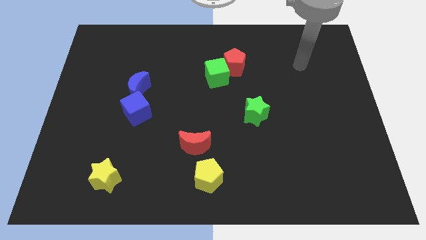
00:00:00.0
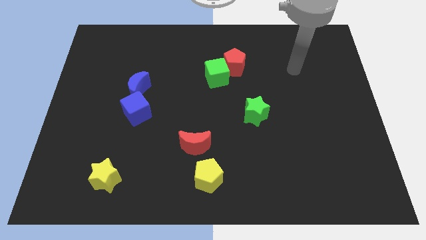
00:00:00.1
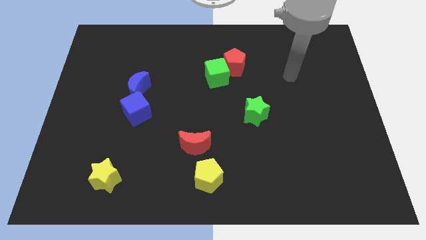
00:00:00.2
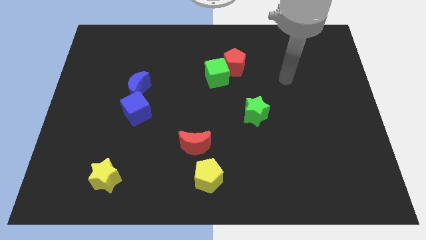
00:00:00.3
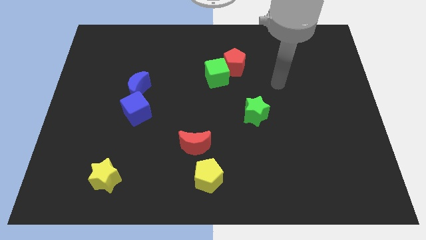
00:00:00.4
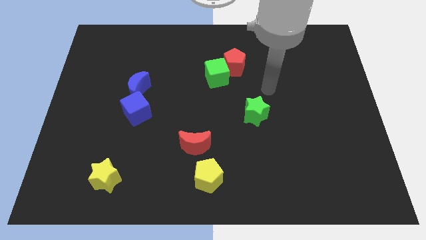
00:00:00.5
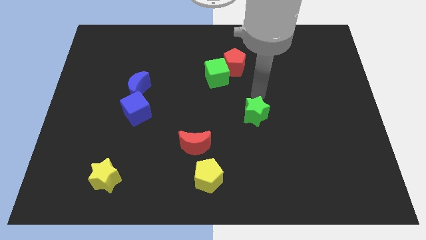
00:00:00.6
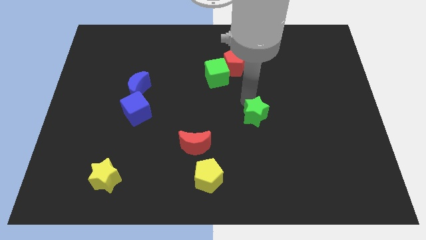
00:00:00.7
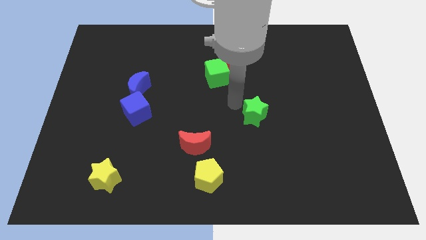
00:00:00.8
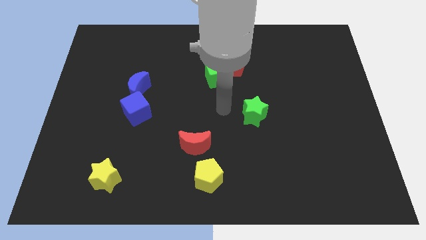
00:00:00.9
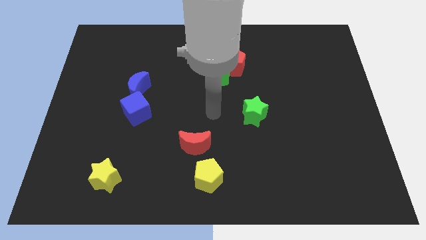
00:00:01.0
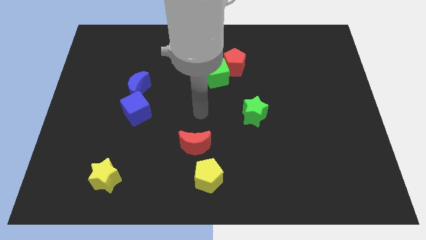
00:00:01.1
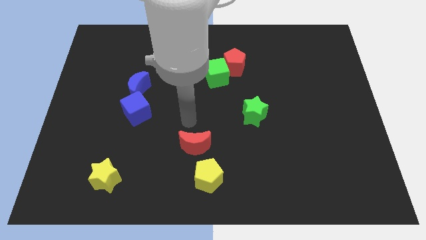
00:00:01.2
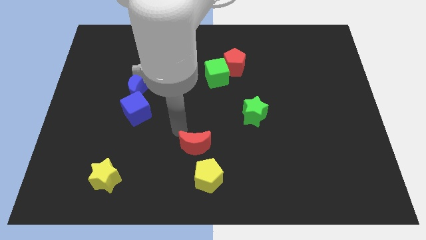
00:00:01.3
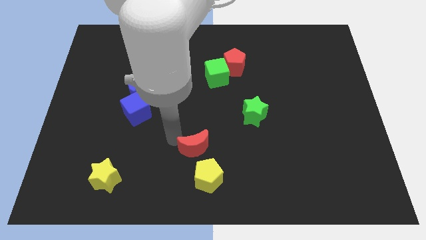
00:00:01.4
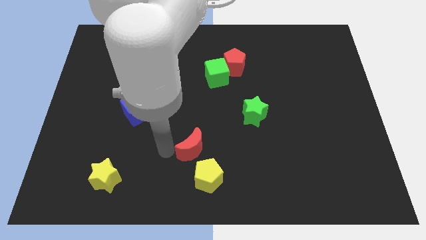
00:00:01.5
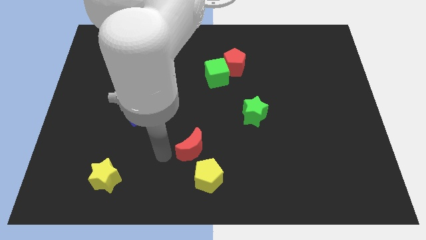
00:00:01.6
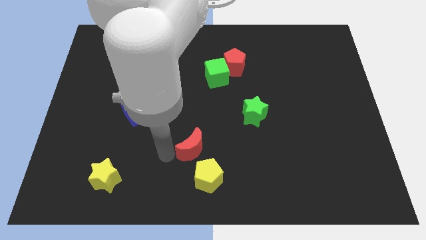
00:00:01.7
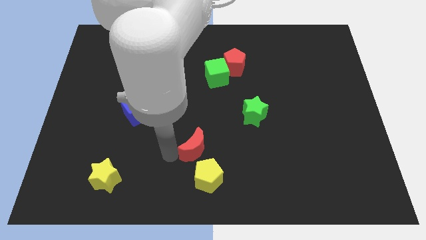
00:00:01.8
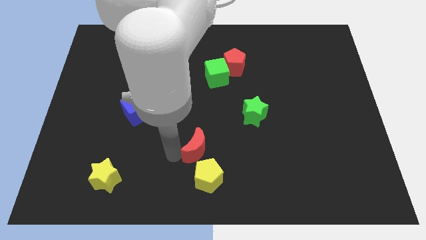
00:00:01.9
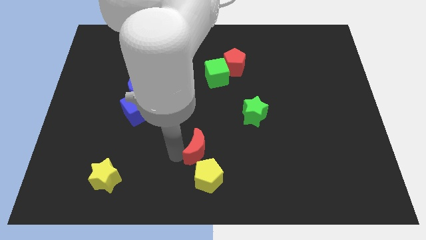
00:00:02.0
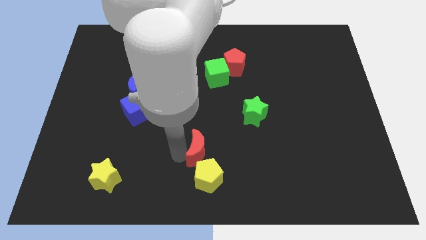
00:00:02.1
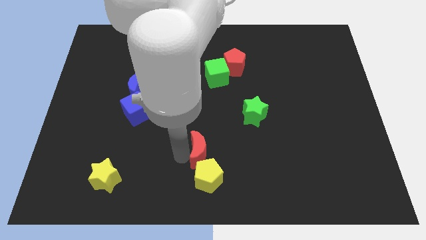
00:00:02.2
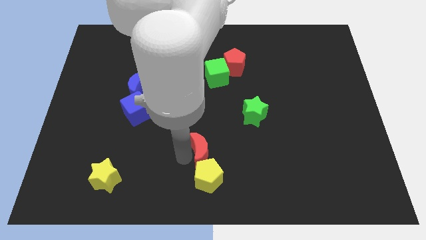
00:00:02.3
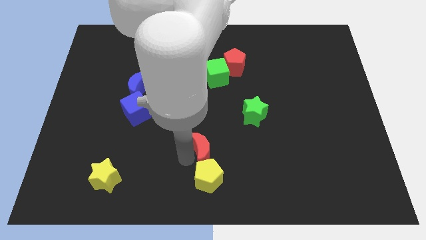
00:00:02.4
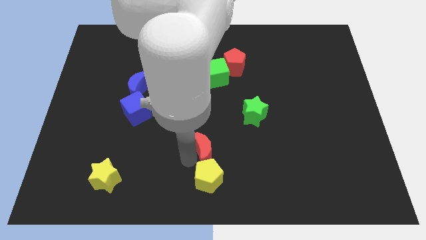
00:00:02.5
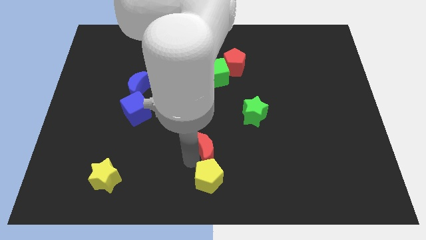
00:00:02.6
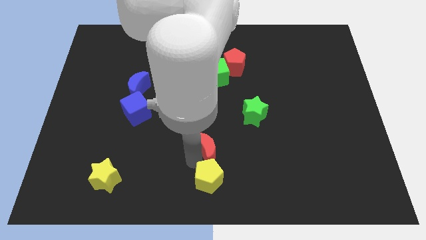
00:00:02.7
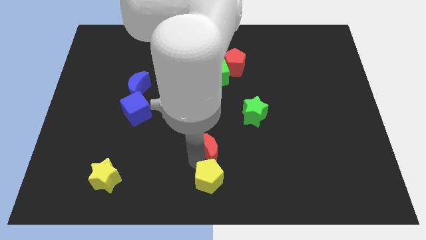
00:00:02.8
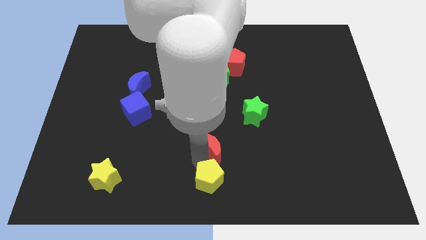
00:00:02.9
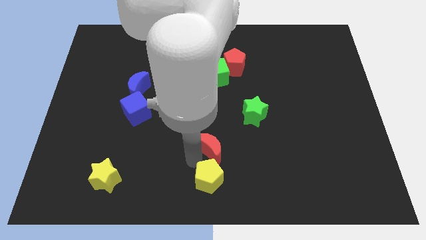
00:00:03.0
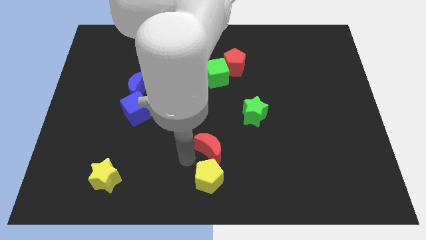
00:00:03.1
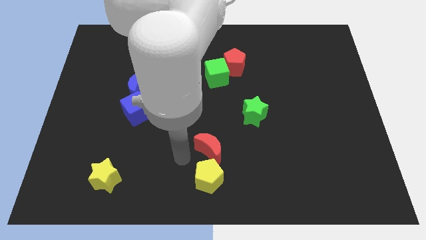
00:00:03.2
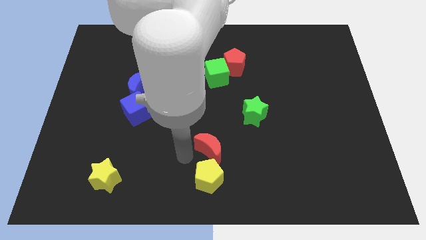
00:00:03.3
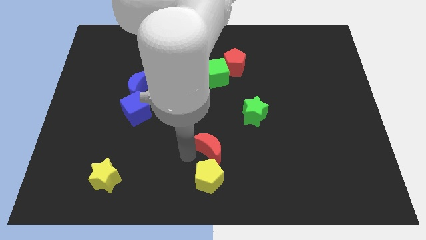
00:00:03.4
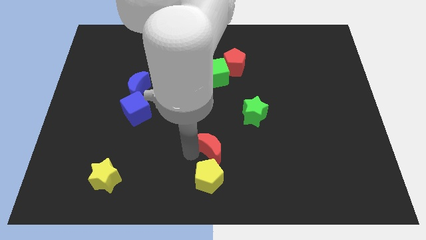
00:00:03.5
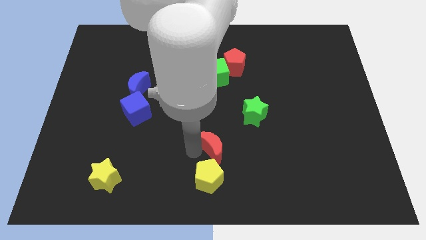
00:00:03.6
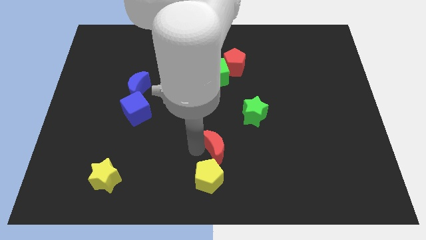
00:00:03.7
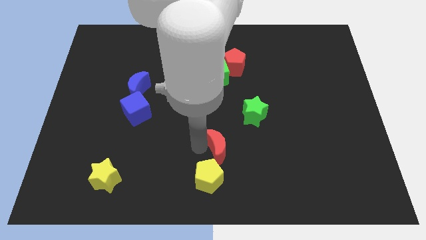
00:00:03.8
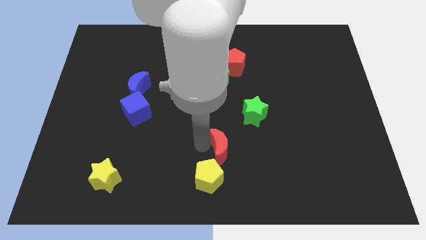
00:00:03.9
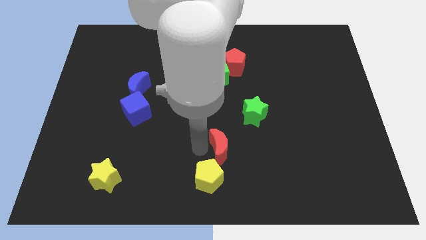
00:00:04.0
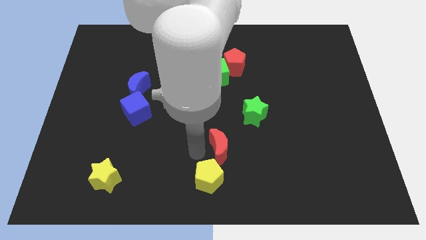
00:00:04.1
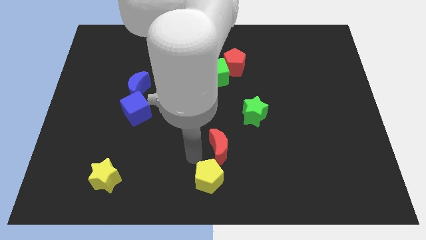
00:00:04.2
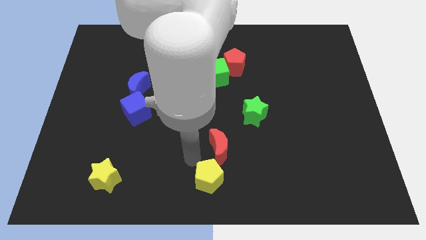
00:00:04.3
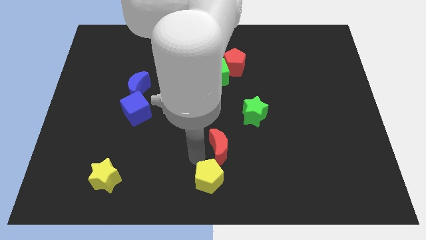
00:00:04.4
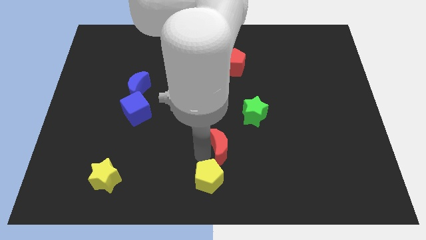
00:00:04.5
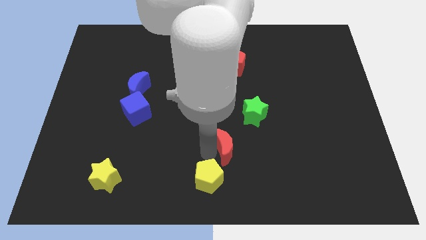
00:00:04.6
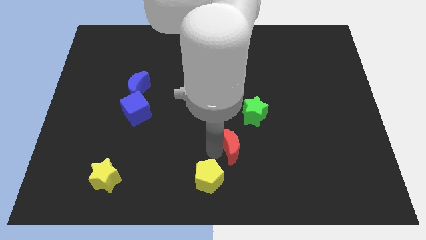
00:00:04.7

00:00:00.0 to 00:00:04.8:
move the red moon a little right

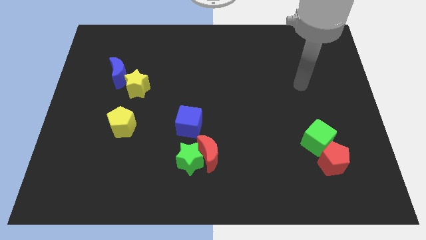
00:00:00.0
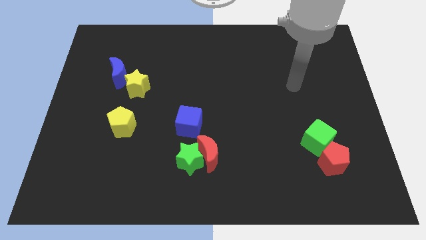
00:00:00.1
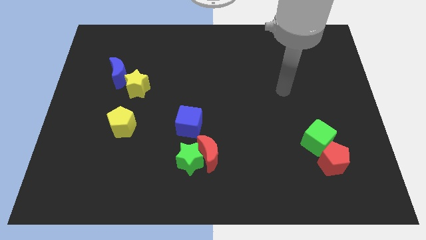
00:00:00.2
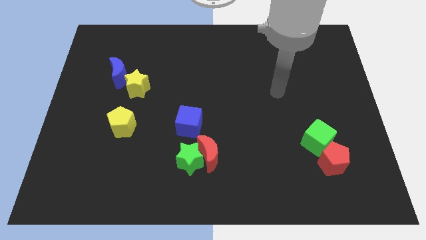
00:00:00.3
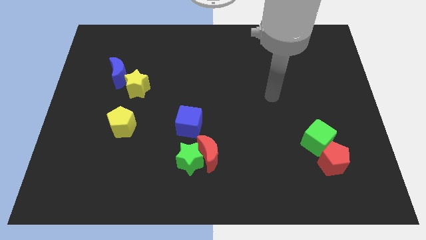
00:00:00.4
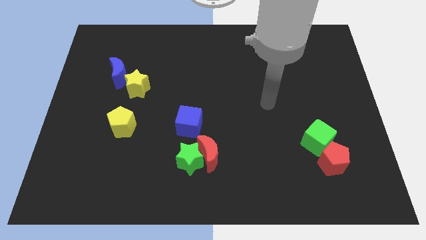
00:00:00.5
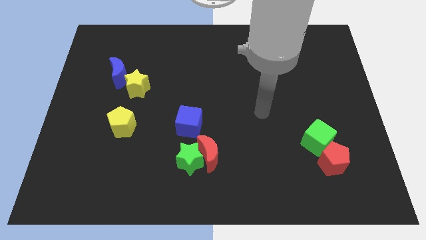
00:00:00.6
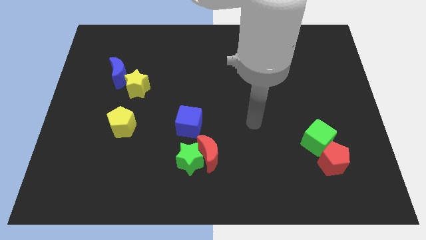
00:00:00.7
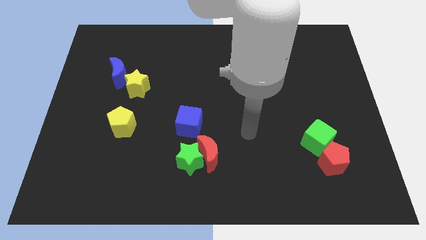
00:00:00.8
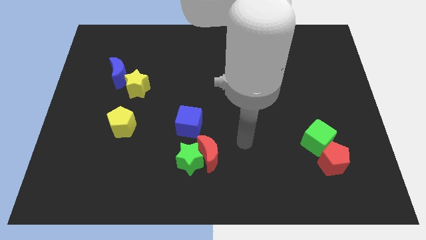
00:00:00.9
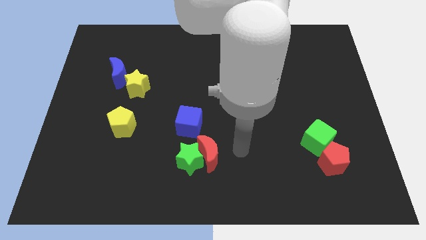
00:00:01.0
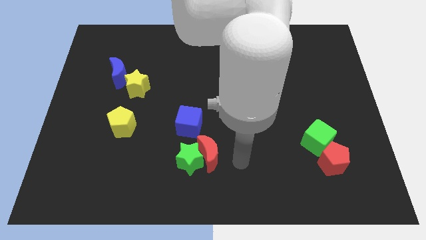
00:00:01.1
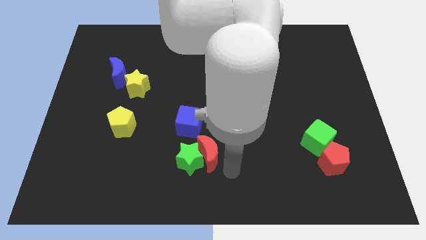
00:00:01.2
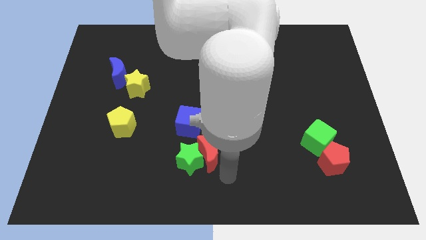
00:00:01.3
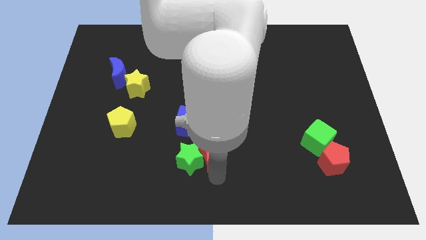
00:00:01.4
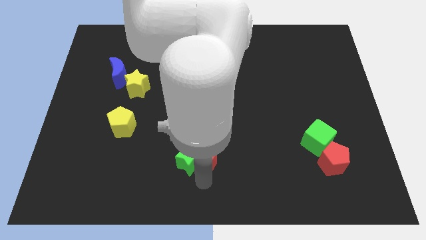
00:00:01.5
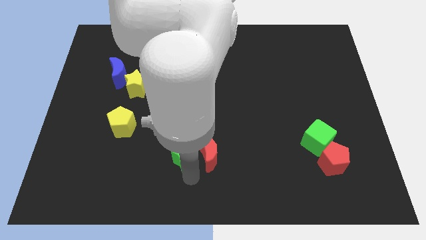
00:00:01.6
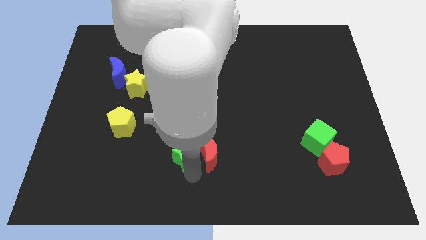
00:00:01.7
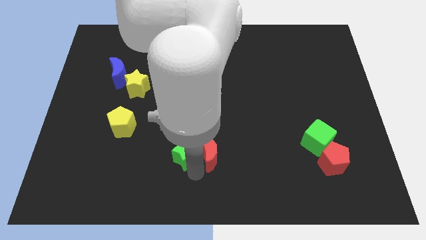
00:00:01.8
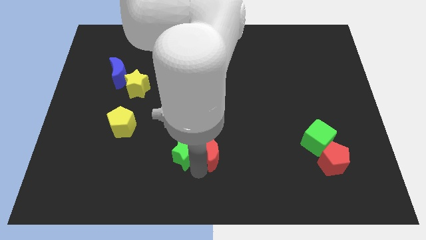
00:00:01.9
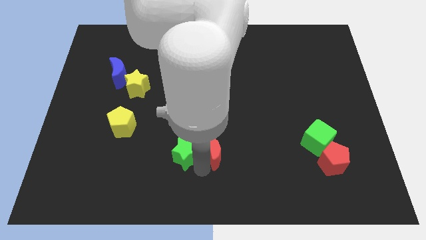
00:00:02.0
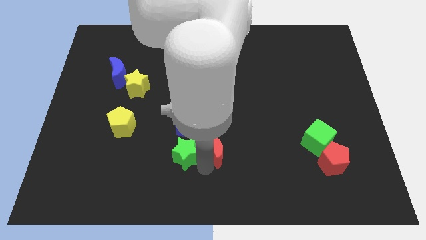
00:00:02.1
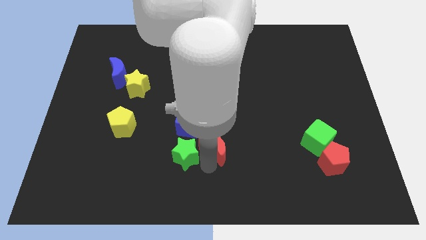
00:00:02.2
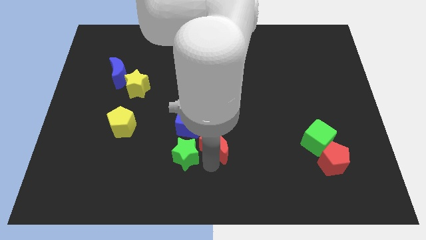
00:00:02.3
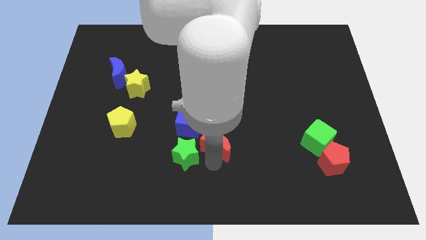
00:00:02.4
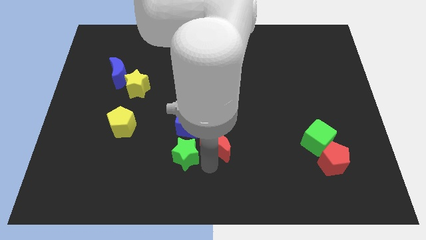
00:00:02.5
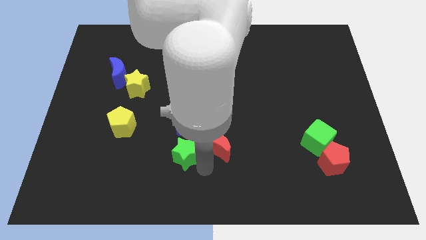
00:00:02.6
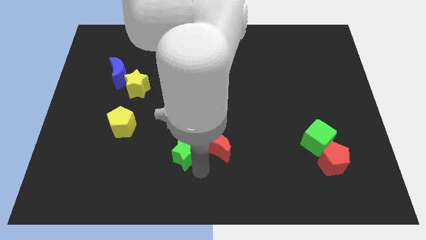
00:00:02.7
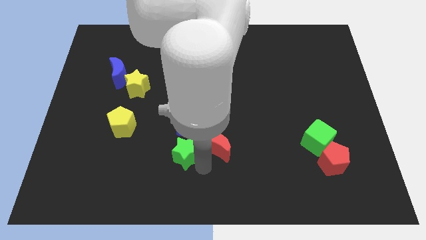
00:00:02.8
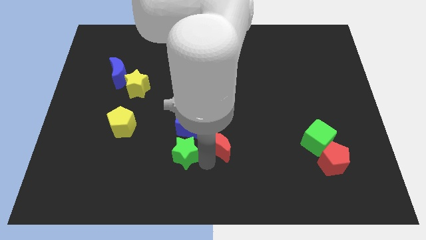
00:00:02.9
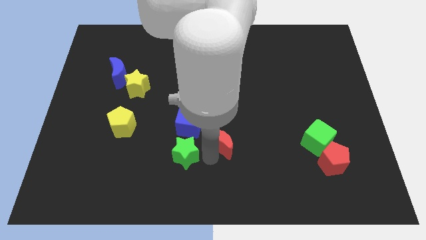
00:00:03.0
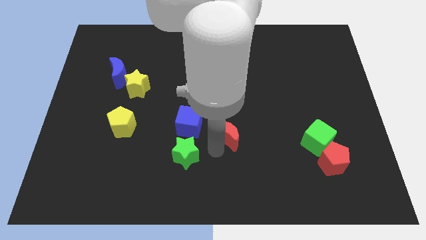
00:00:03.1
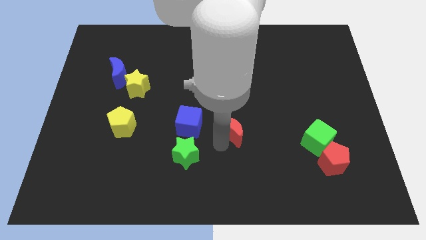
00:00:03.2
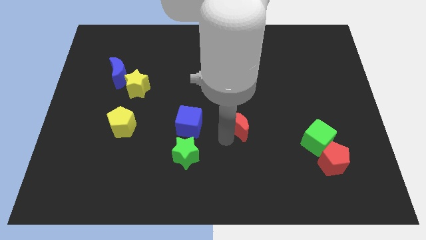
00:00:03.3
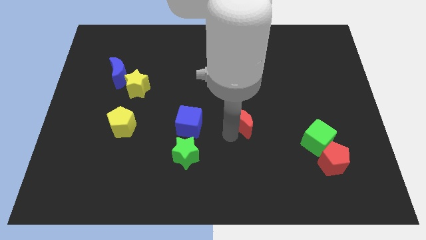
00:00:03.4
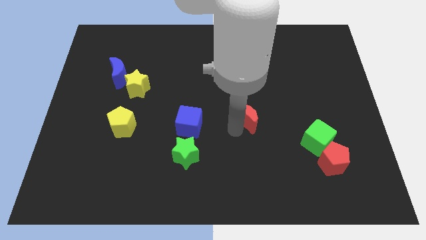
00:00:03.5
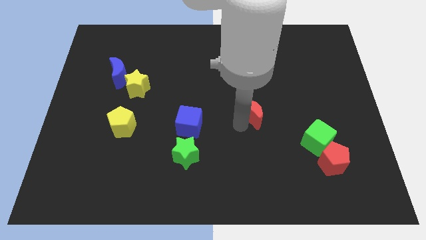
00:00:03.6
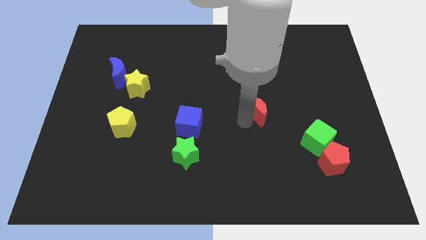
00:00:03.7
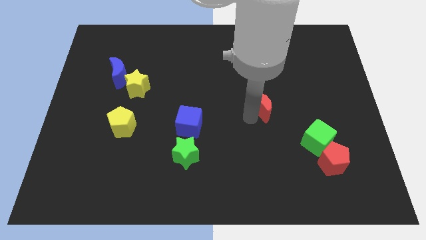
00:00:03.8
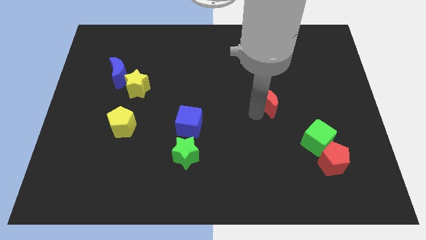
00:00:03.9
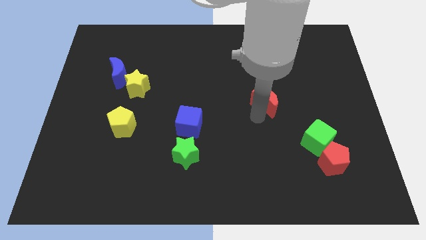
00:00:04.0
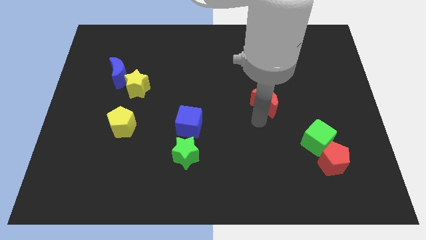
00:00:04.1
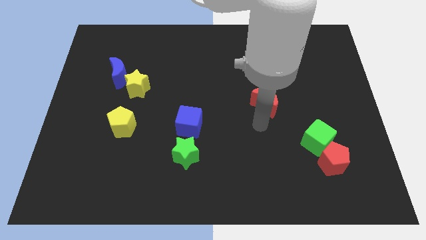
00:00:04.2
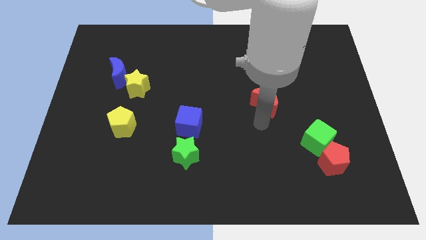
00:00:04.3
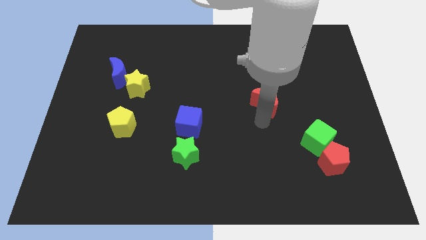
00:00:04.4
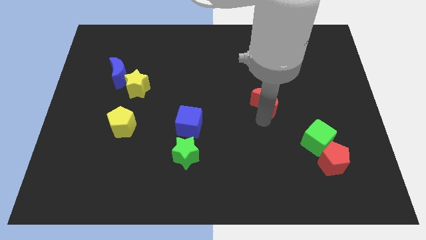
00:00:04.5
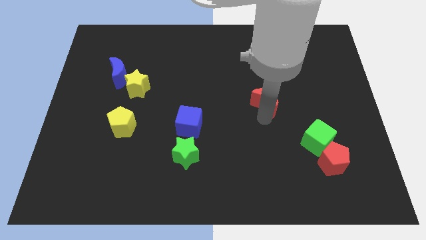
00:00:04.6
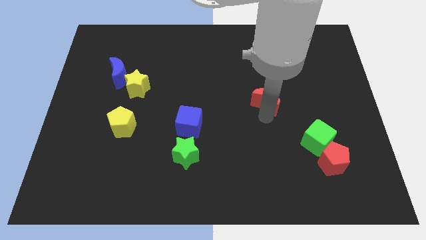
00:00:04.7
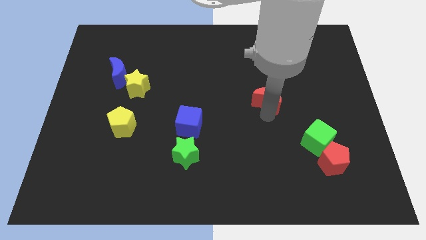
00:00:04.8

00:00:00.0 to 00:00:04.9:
slide the red moon up and then right
